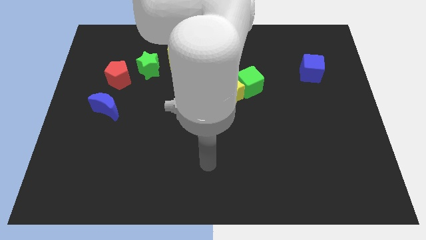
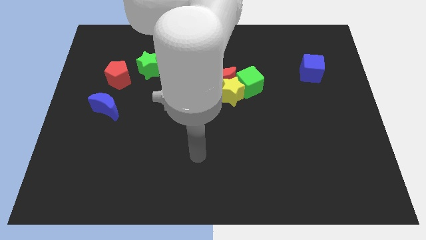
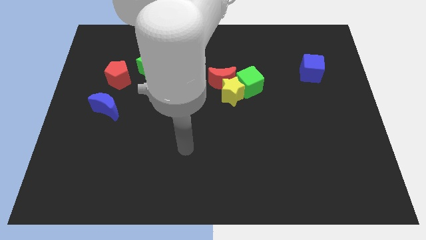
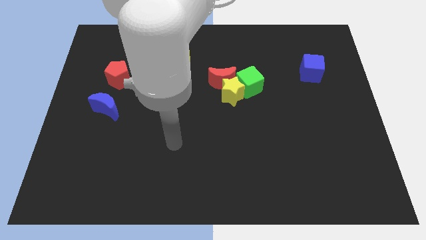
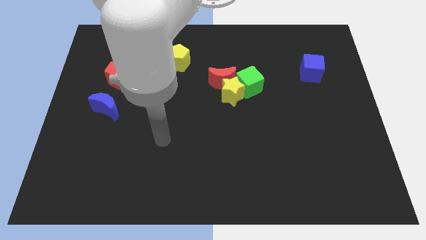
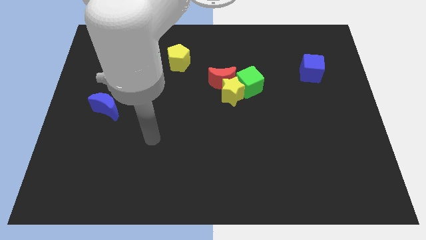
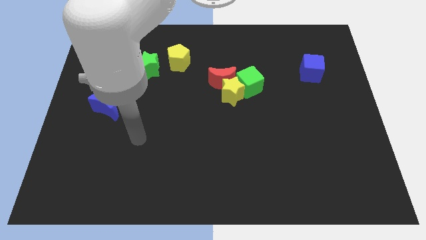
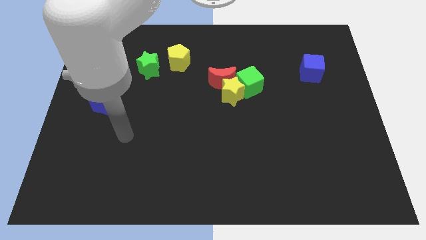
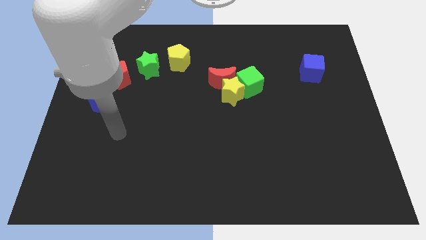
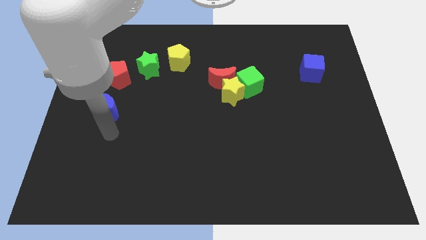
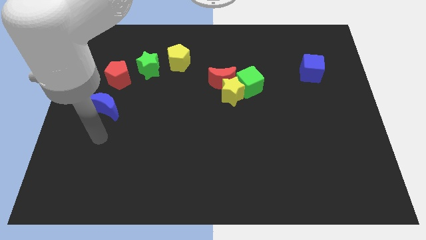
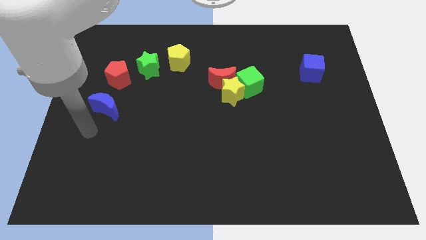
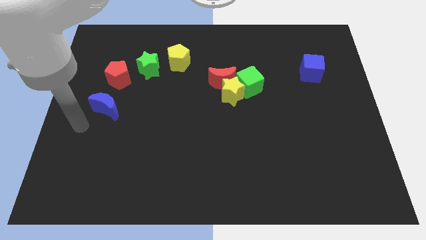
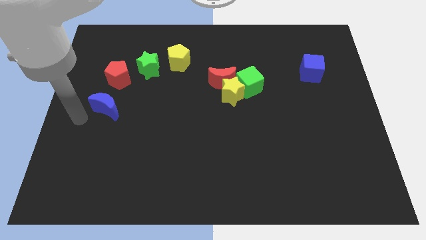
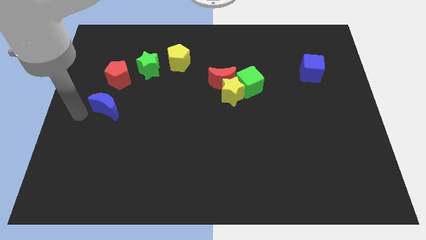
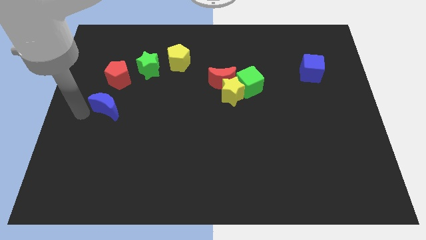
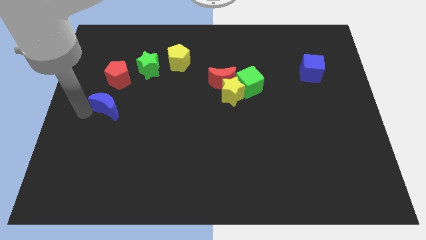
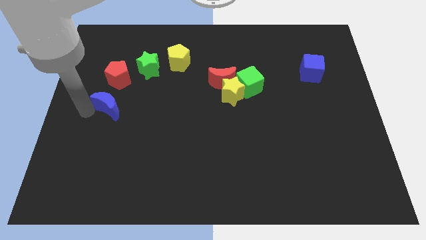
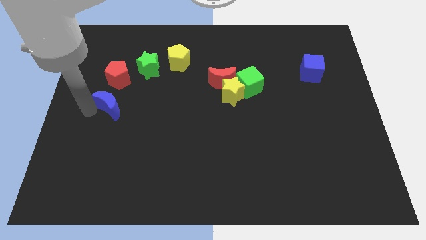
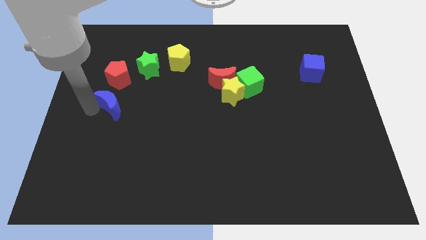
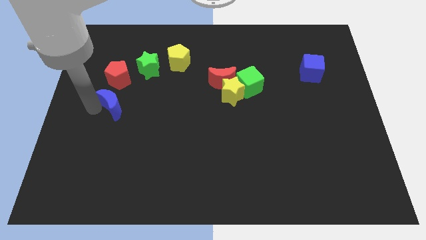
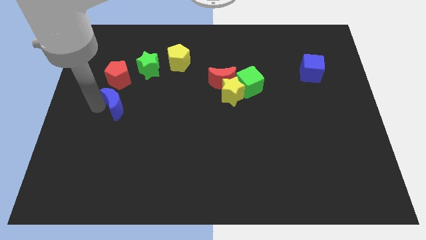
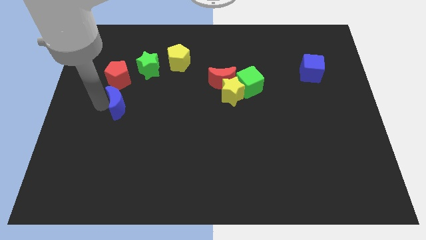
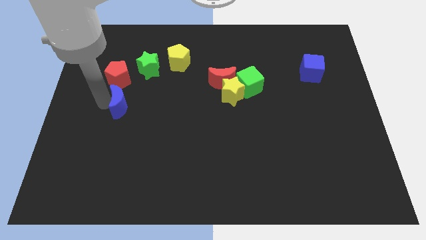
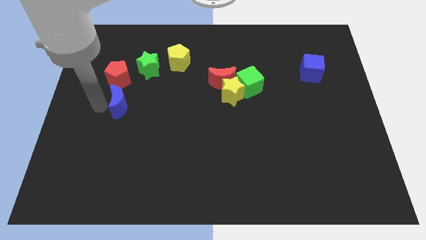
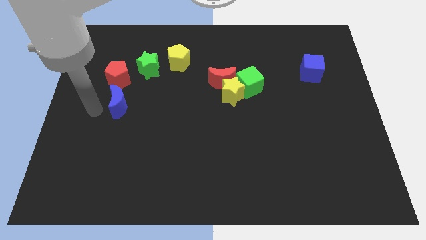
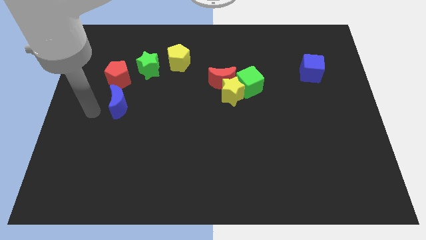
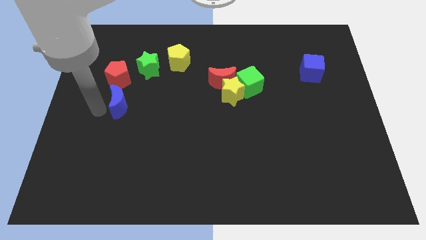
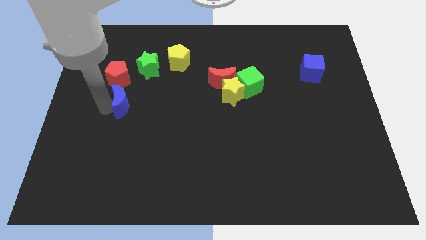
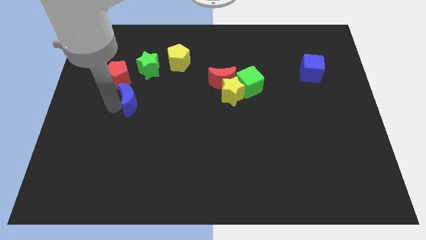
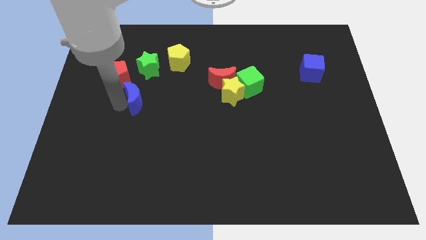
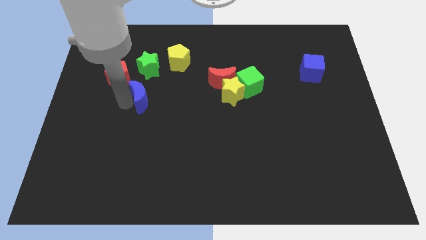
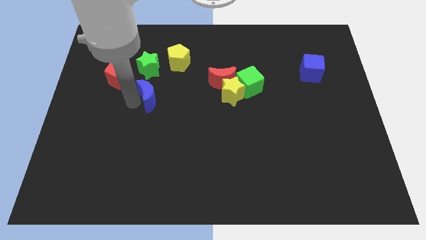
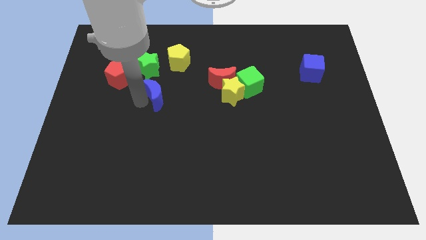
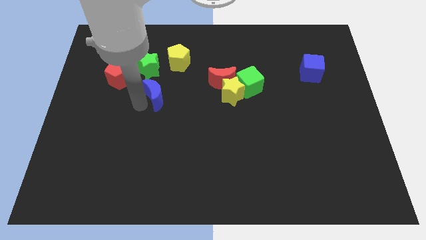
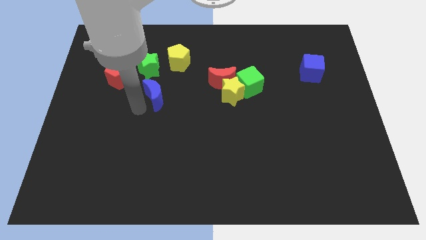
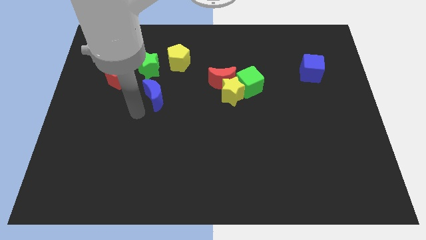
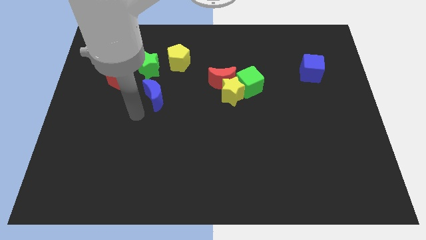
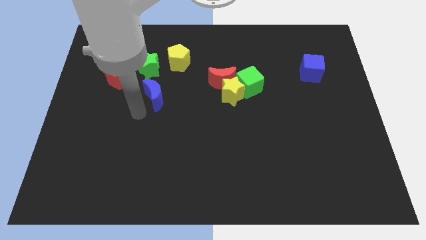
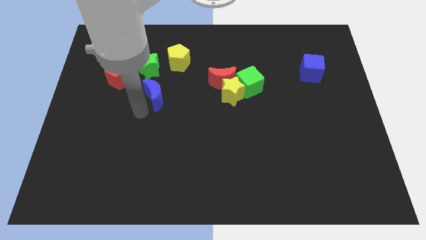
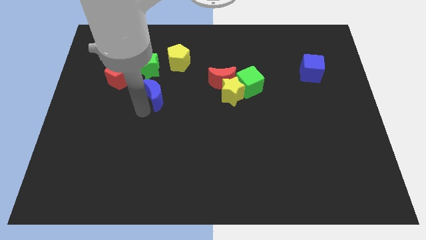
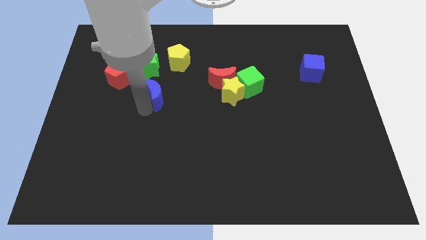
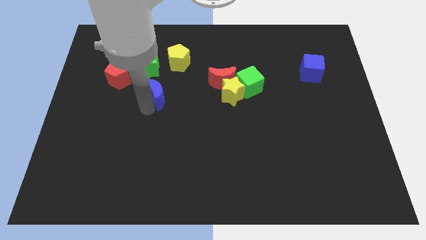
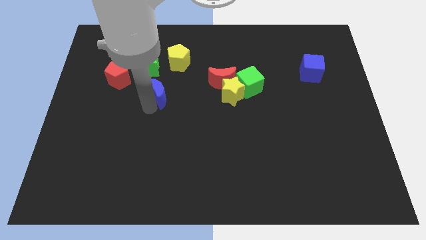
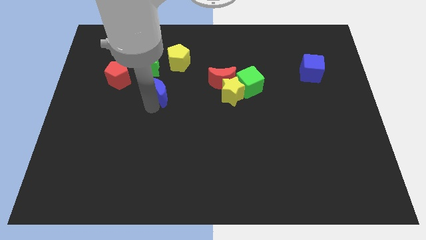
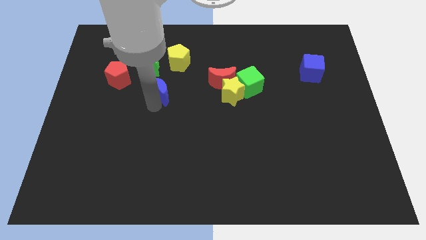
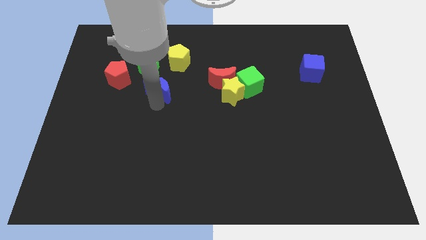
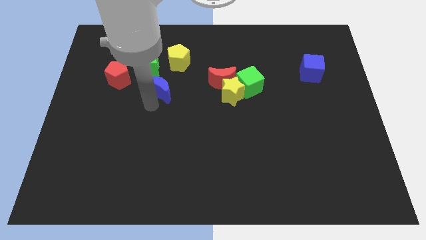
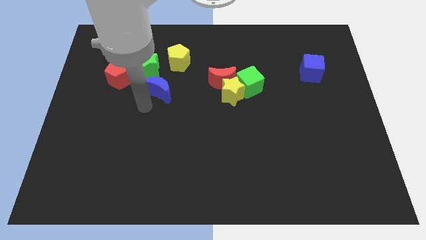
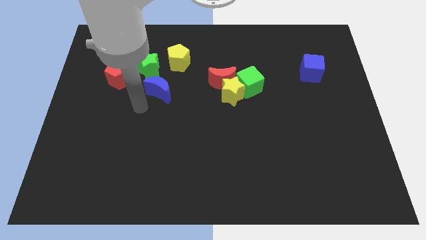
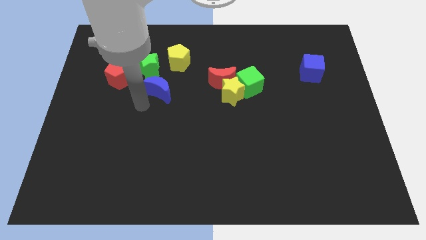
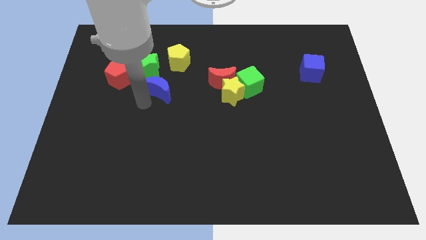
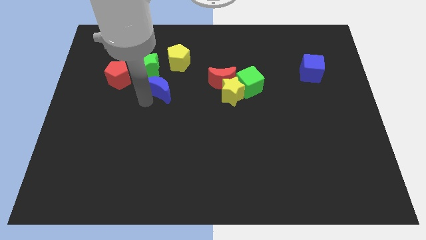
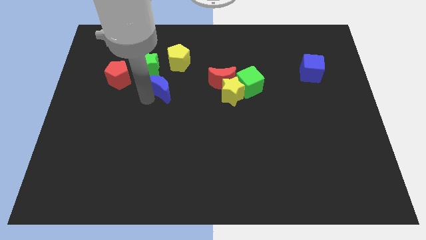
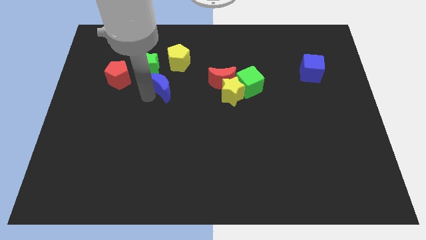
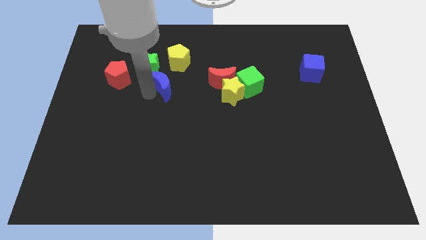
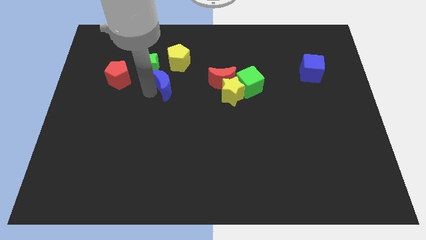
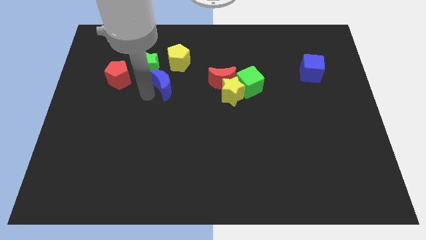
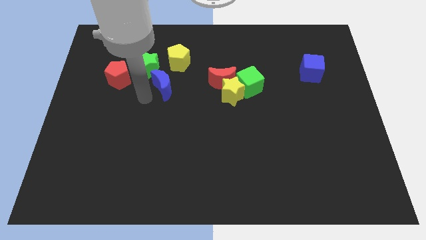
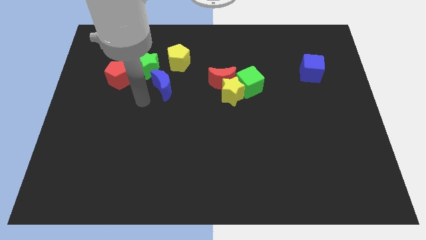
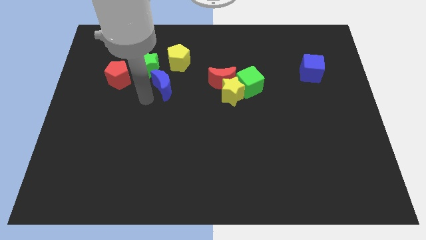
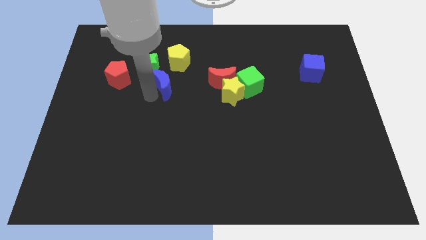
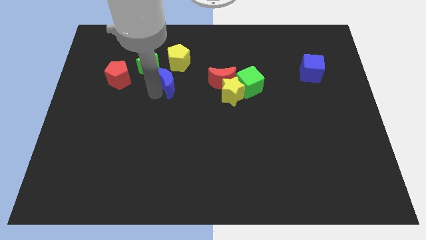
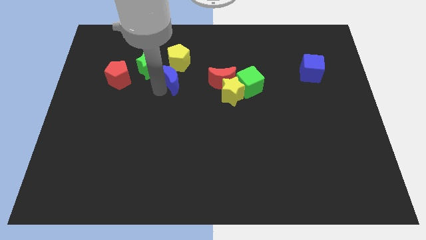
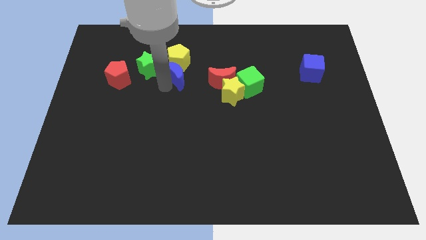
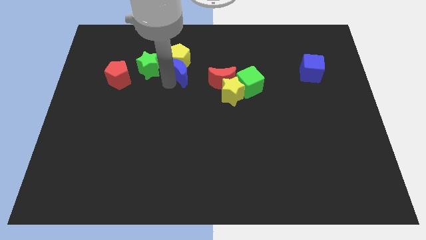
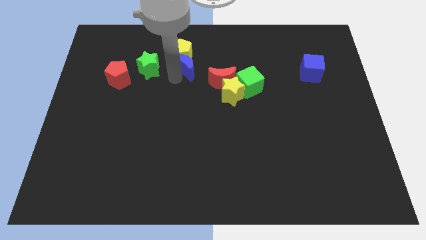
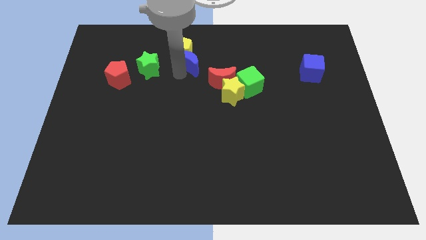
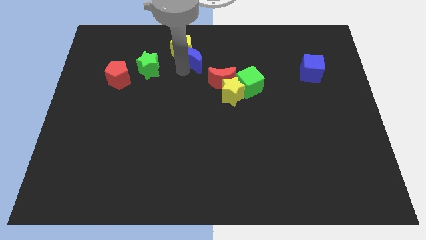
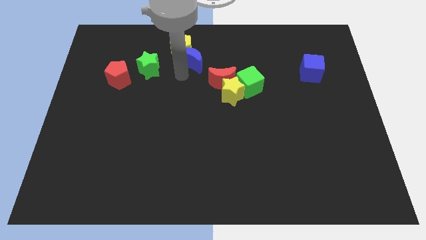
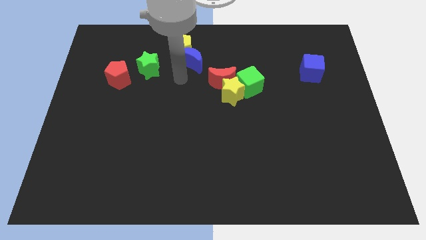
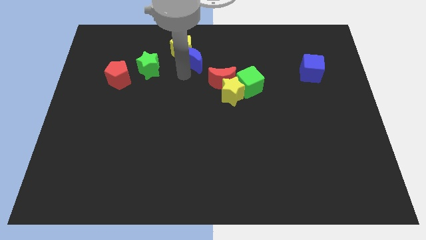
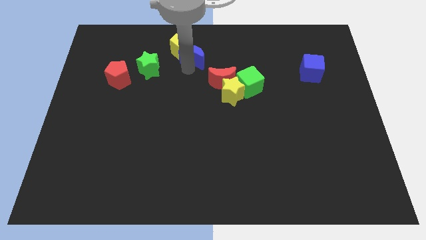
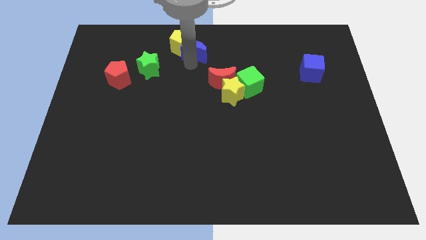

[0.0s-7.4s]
push the blue moon to the towards your base
